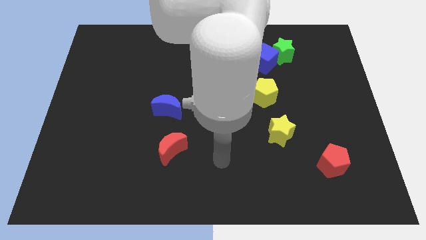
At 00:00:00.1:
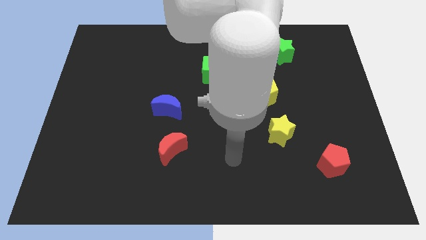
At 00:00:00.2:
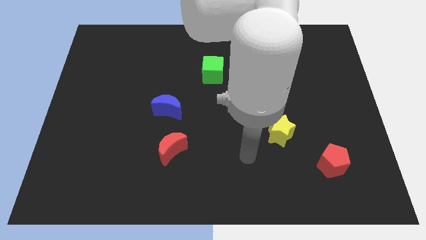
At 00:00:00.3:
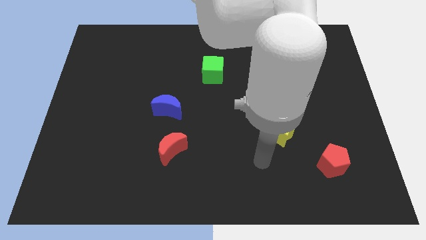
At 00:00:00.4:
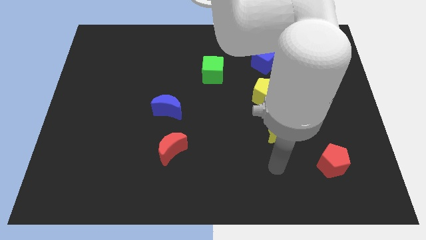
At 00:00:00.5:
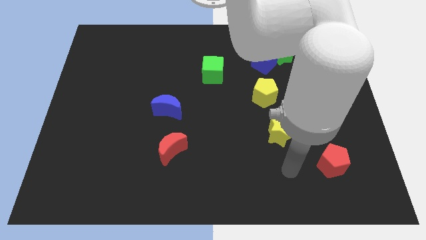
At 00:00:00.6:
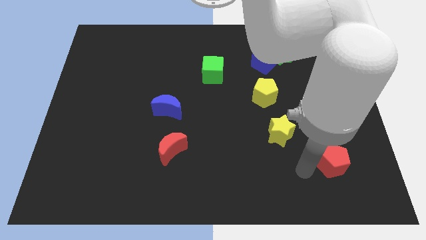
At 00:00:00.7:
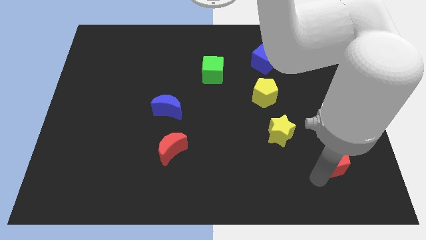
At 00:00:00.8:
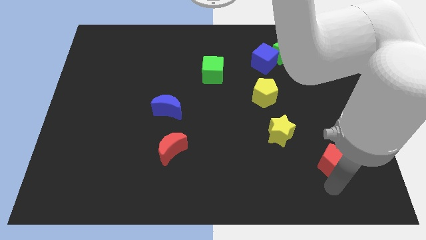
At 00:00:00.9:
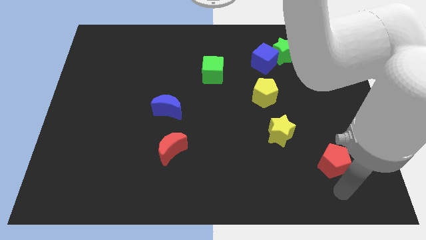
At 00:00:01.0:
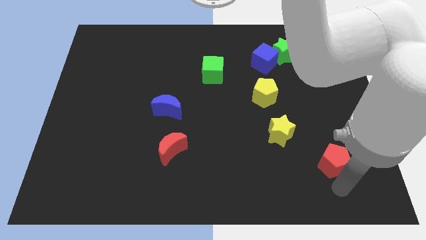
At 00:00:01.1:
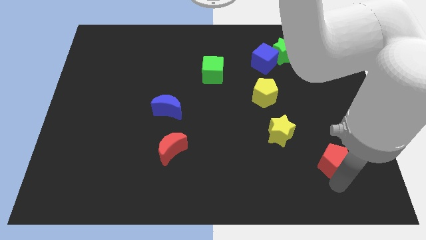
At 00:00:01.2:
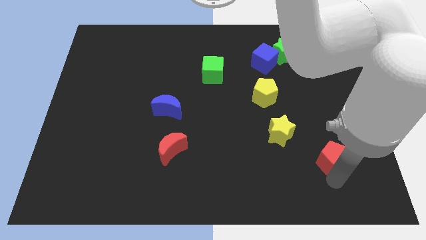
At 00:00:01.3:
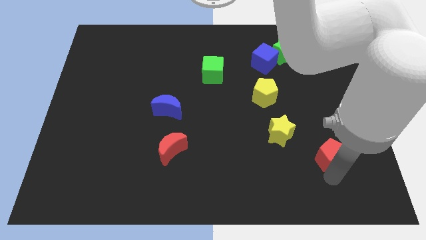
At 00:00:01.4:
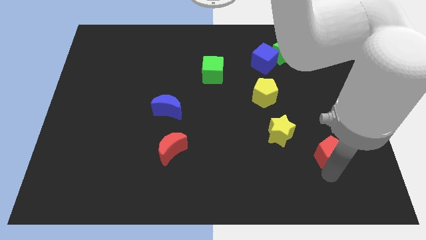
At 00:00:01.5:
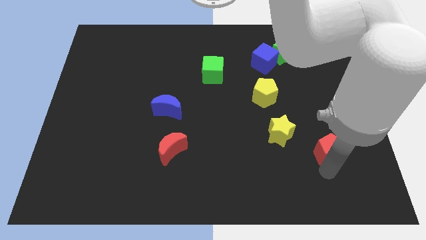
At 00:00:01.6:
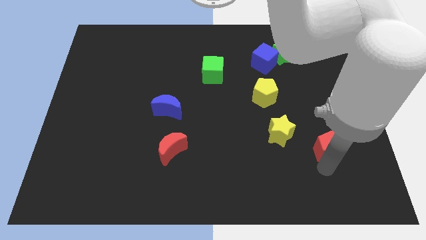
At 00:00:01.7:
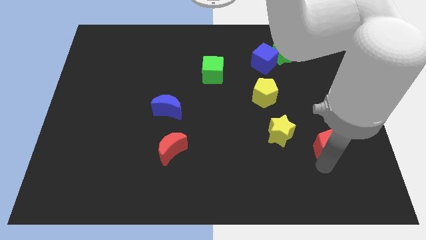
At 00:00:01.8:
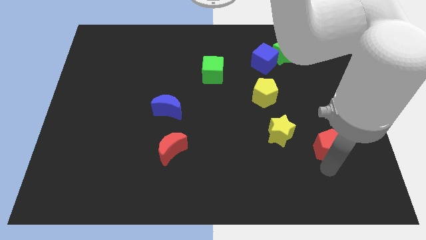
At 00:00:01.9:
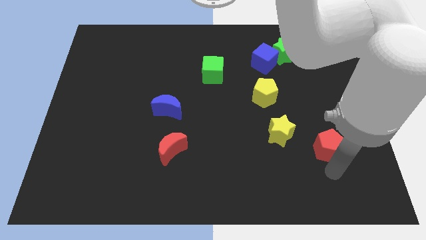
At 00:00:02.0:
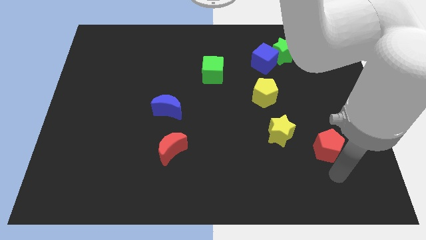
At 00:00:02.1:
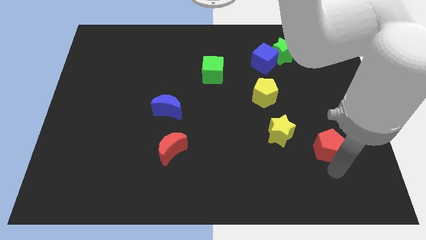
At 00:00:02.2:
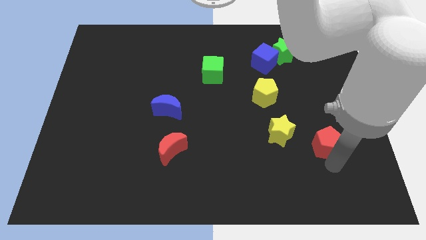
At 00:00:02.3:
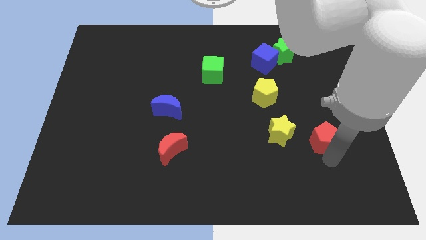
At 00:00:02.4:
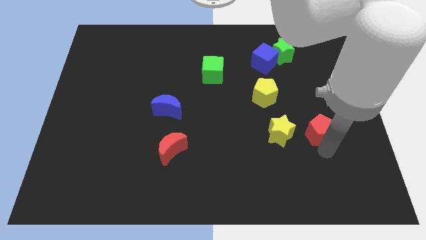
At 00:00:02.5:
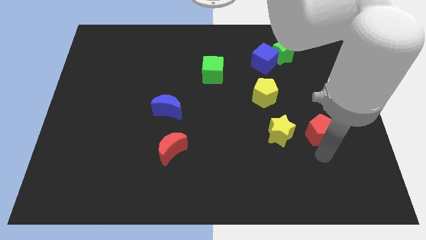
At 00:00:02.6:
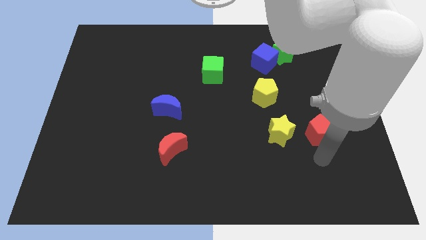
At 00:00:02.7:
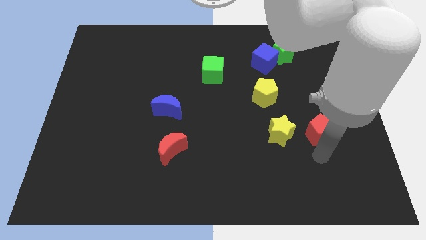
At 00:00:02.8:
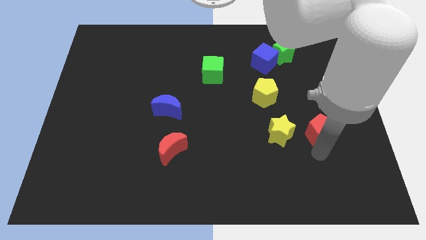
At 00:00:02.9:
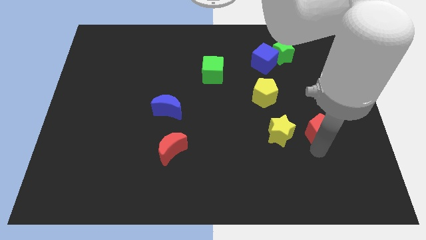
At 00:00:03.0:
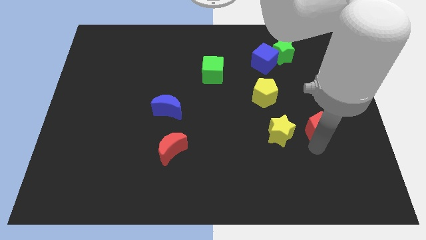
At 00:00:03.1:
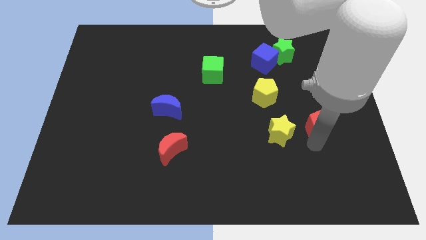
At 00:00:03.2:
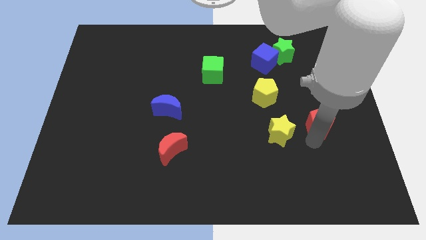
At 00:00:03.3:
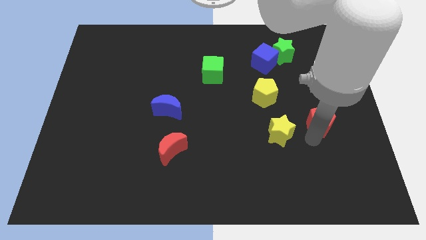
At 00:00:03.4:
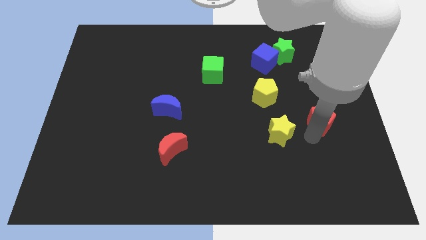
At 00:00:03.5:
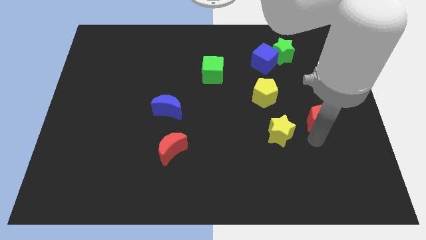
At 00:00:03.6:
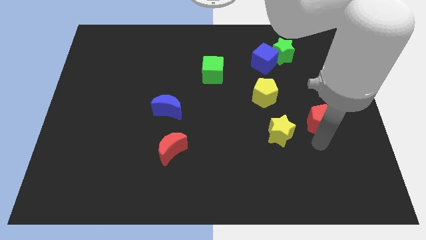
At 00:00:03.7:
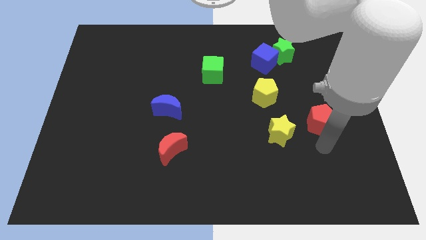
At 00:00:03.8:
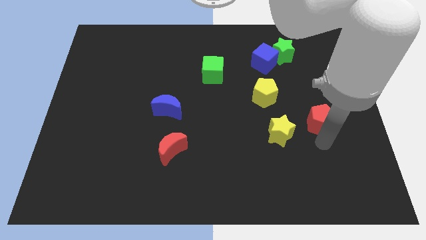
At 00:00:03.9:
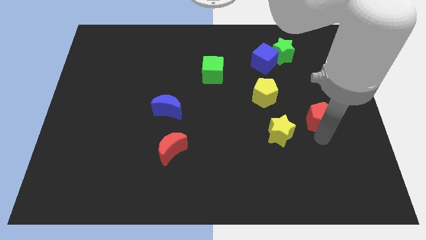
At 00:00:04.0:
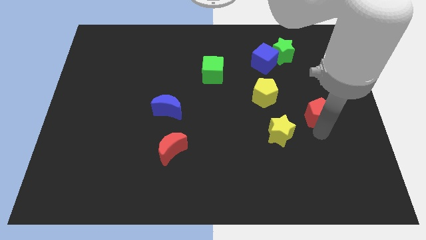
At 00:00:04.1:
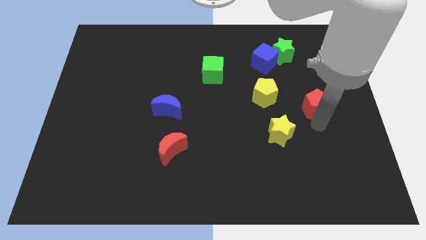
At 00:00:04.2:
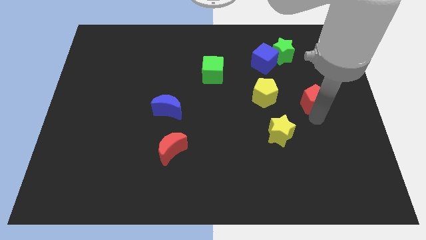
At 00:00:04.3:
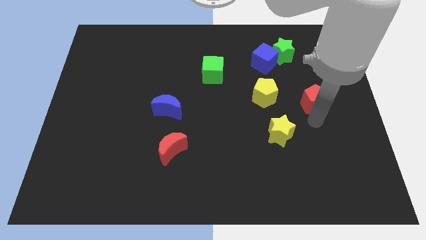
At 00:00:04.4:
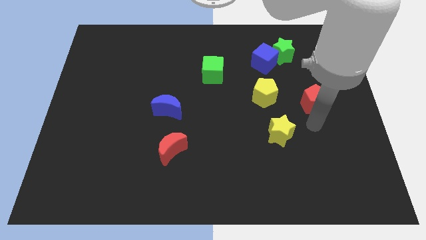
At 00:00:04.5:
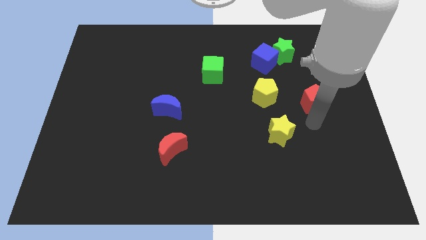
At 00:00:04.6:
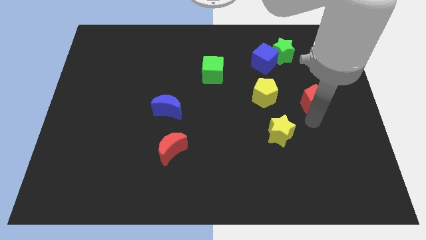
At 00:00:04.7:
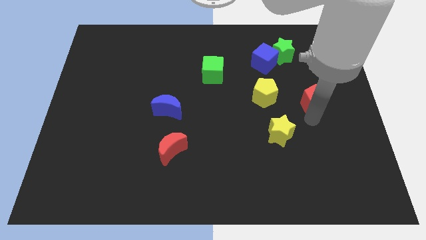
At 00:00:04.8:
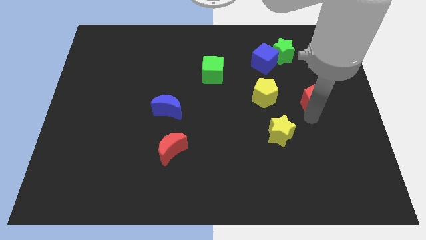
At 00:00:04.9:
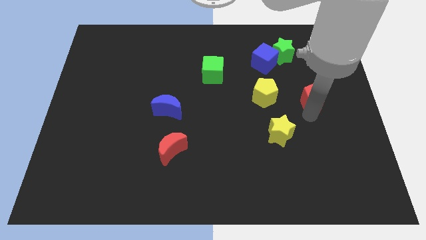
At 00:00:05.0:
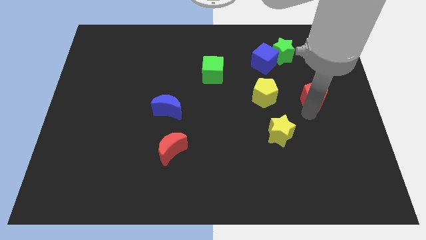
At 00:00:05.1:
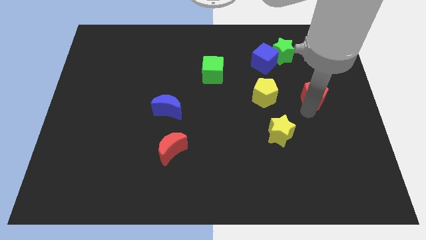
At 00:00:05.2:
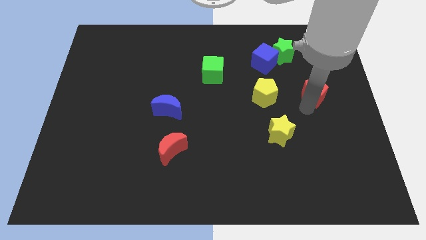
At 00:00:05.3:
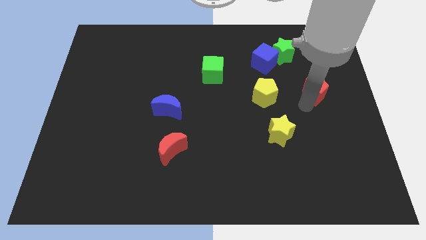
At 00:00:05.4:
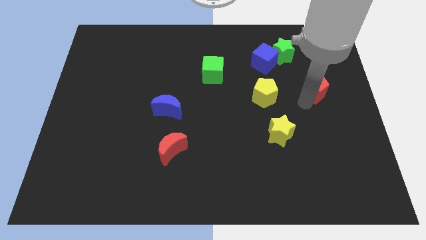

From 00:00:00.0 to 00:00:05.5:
move the red pentagon up

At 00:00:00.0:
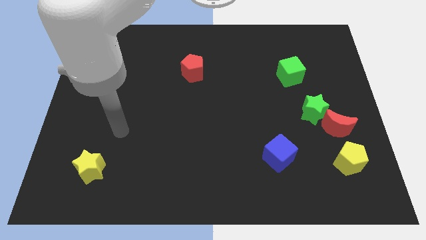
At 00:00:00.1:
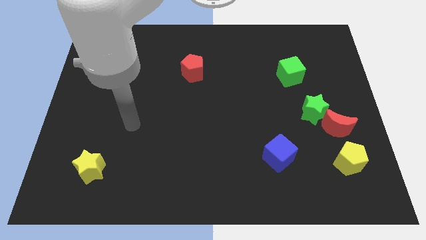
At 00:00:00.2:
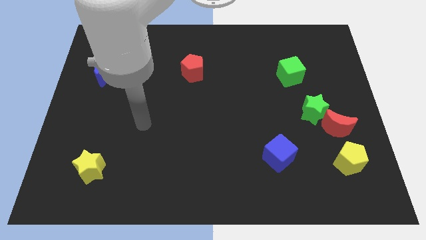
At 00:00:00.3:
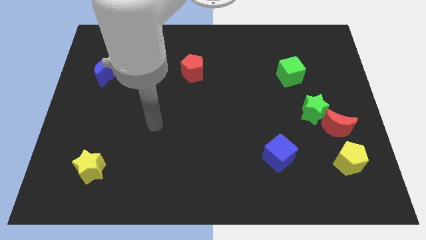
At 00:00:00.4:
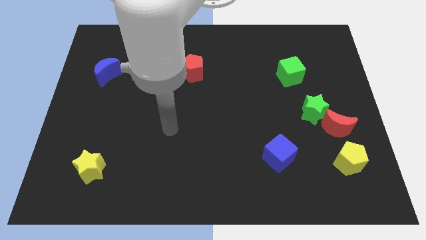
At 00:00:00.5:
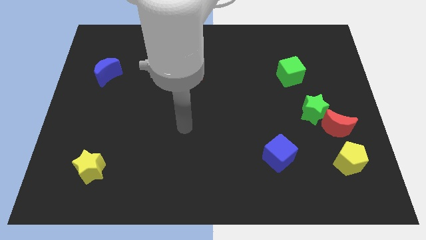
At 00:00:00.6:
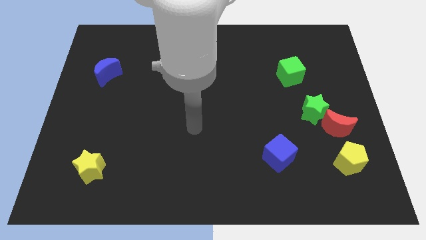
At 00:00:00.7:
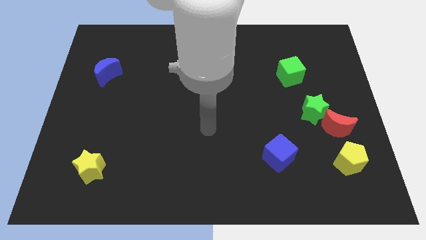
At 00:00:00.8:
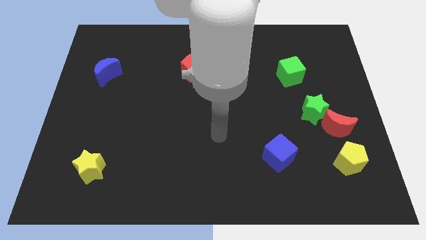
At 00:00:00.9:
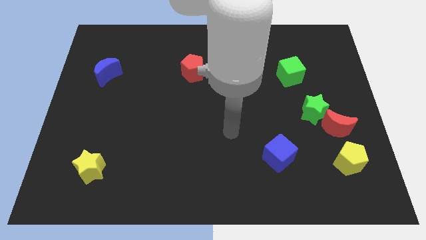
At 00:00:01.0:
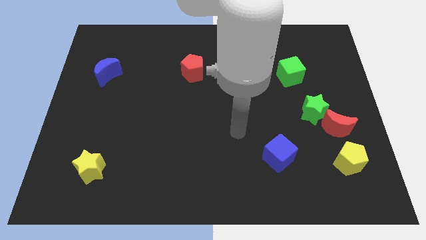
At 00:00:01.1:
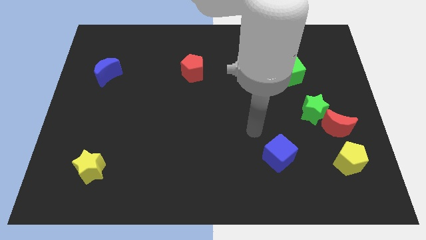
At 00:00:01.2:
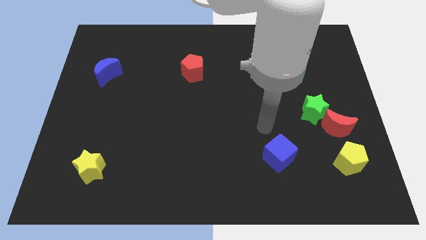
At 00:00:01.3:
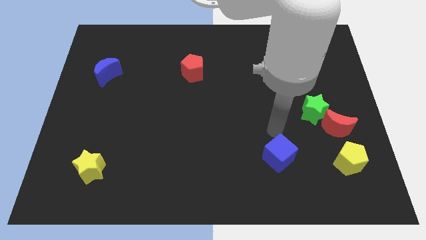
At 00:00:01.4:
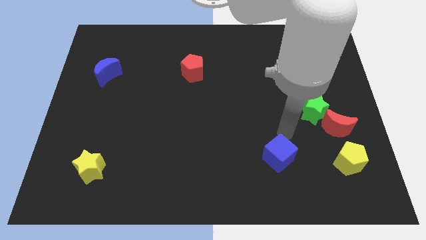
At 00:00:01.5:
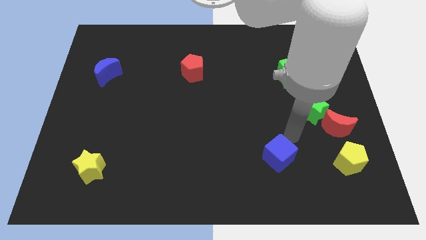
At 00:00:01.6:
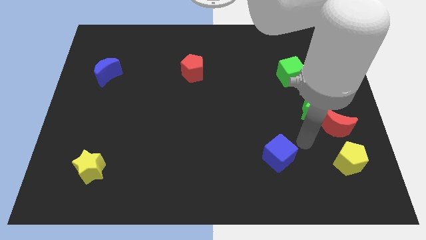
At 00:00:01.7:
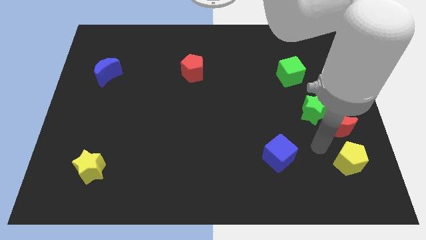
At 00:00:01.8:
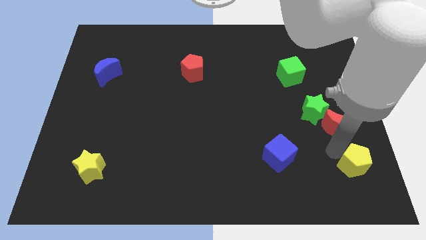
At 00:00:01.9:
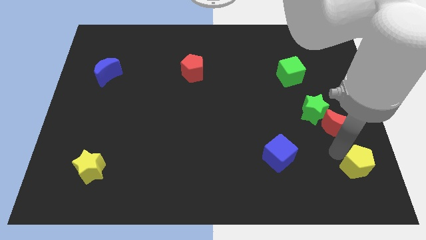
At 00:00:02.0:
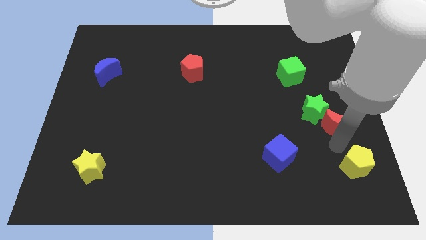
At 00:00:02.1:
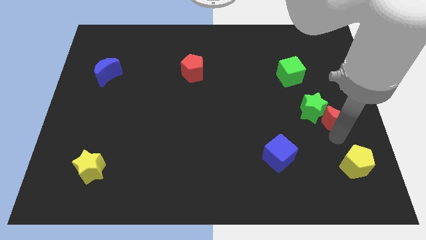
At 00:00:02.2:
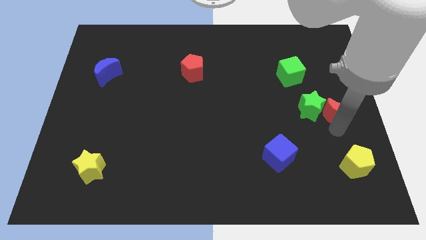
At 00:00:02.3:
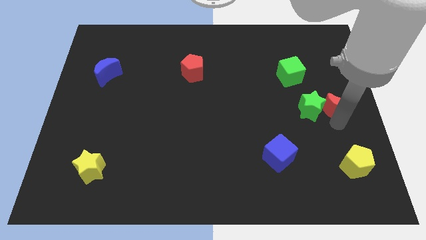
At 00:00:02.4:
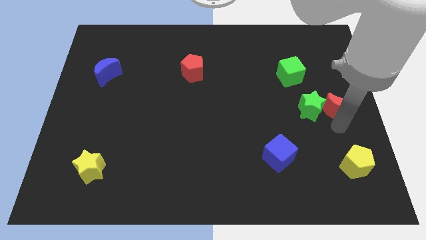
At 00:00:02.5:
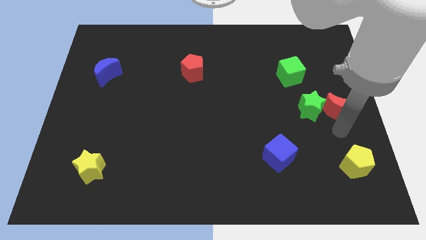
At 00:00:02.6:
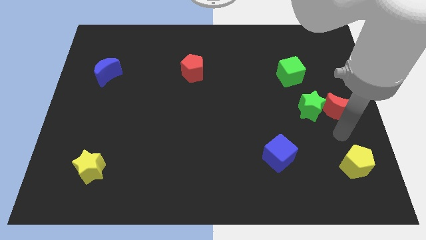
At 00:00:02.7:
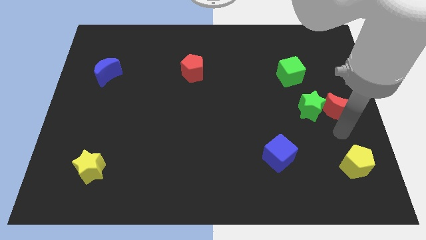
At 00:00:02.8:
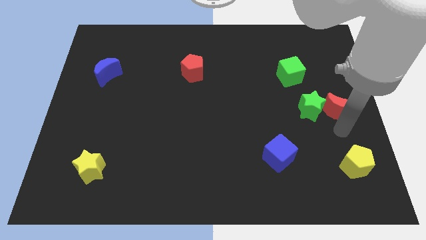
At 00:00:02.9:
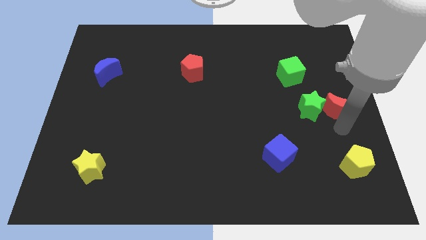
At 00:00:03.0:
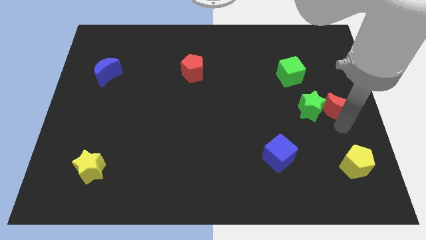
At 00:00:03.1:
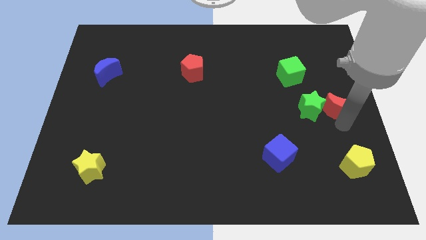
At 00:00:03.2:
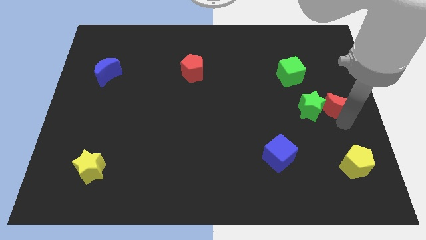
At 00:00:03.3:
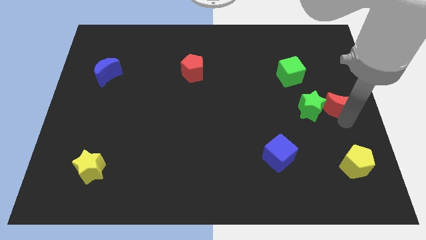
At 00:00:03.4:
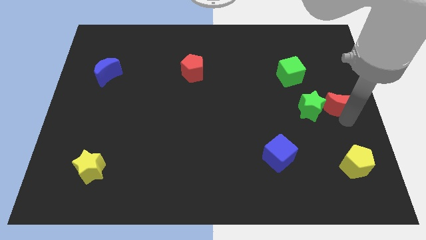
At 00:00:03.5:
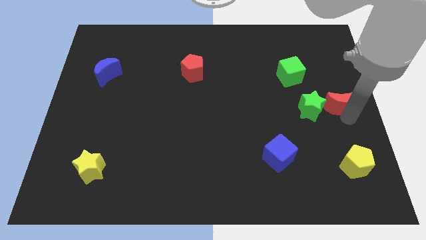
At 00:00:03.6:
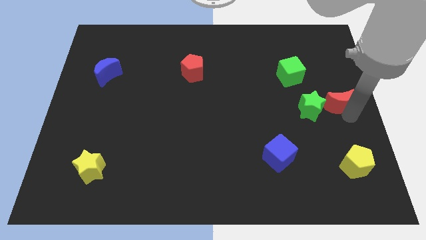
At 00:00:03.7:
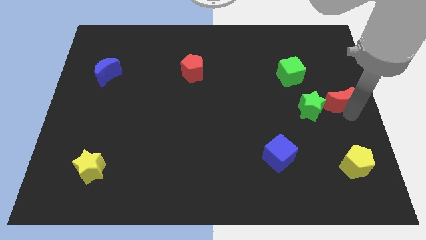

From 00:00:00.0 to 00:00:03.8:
move the red moon up a little bit
